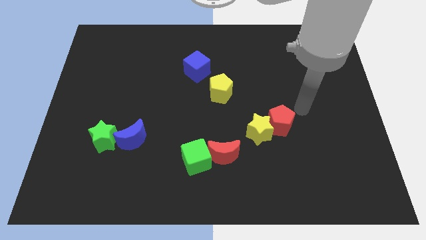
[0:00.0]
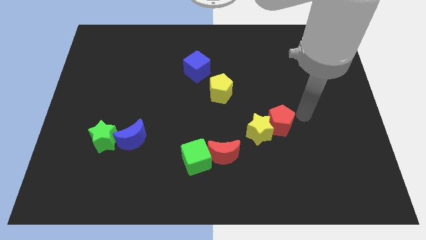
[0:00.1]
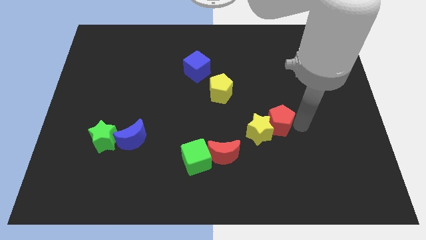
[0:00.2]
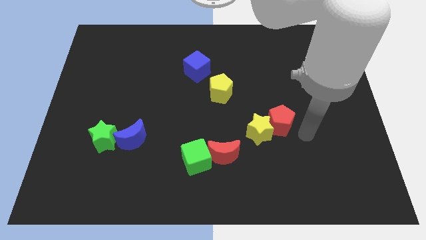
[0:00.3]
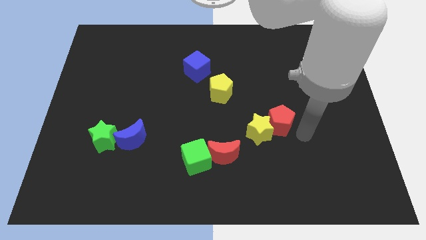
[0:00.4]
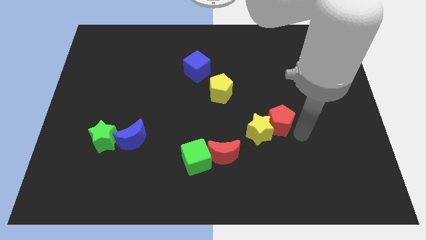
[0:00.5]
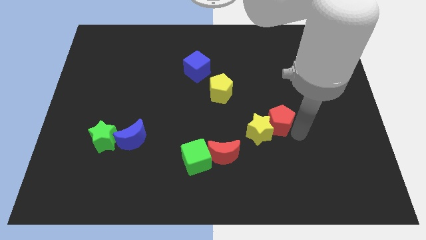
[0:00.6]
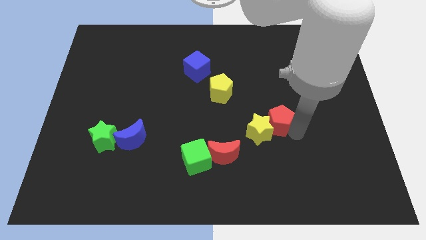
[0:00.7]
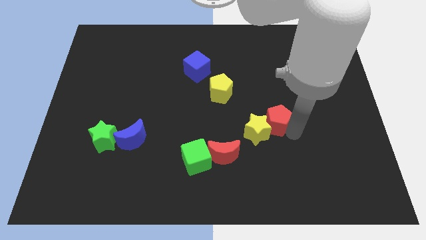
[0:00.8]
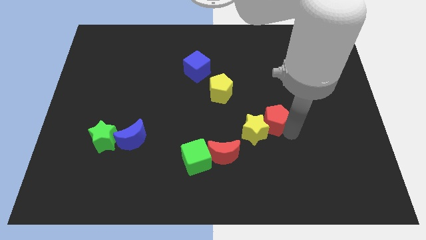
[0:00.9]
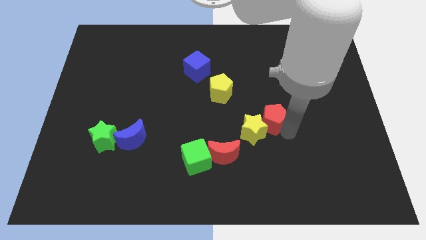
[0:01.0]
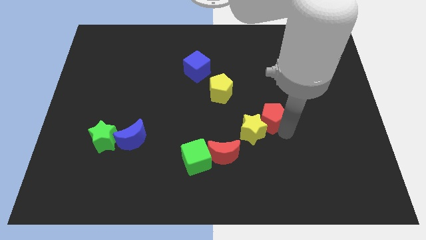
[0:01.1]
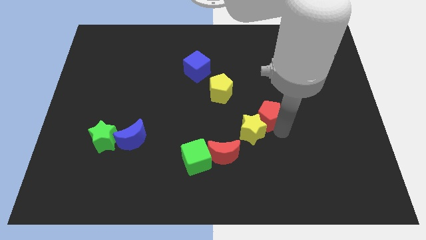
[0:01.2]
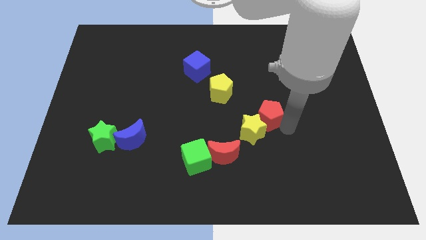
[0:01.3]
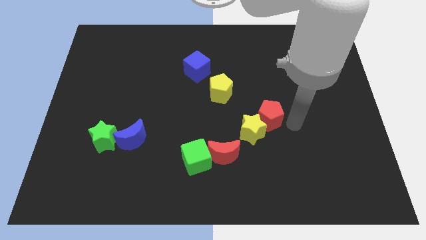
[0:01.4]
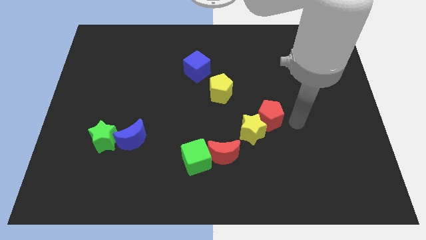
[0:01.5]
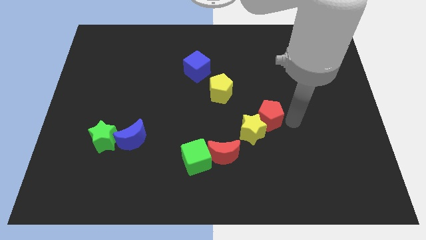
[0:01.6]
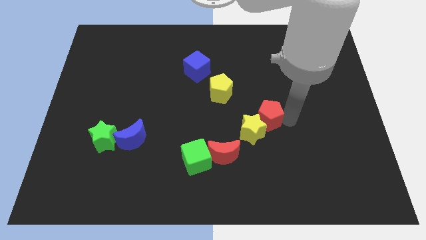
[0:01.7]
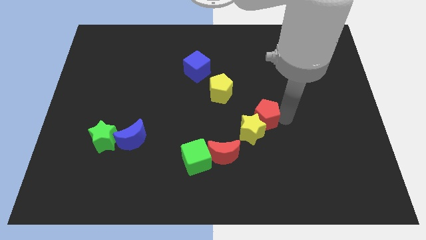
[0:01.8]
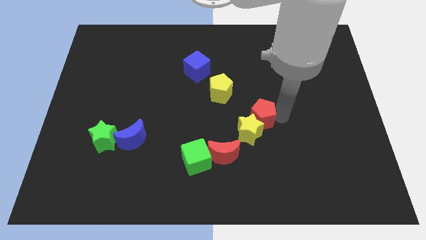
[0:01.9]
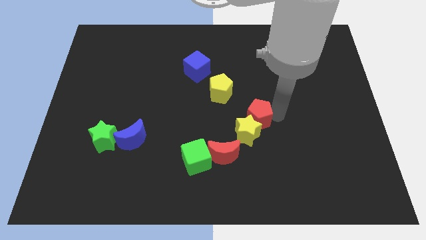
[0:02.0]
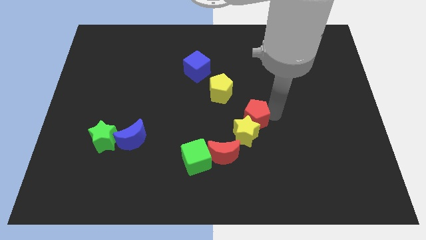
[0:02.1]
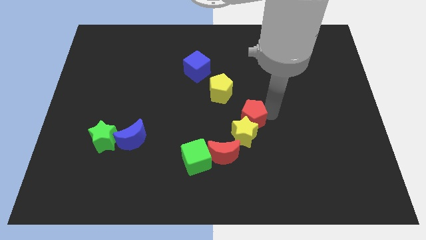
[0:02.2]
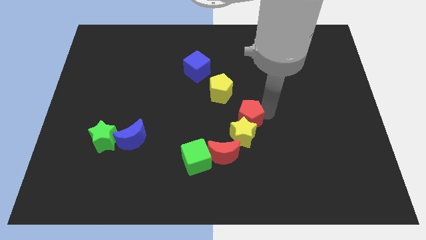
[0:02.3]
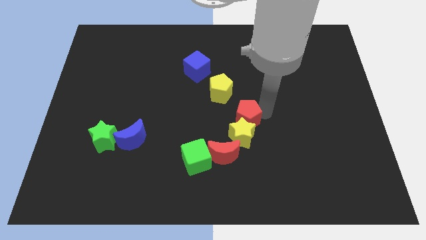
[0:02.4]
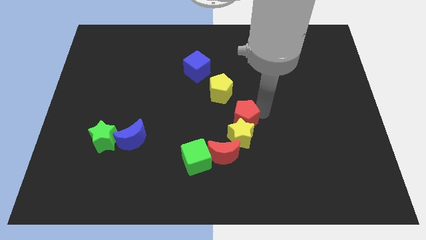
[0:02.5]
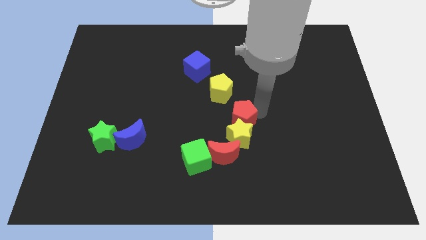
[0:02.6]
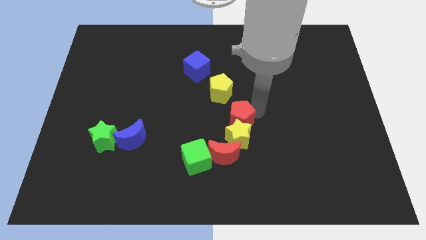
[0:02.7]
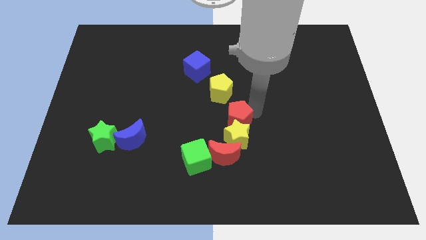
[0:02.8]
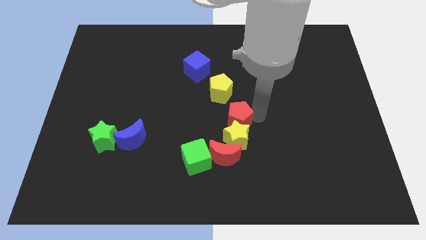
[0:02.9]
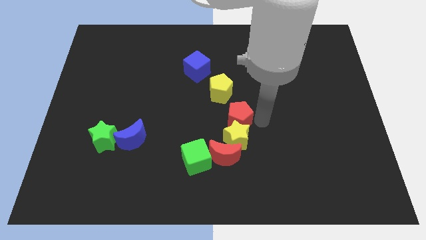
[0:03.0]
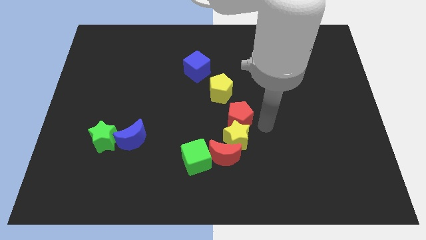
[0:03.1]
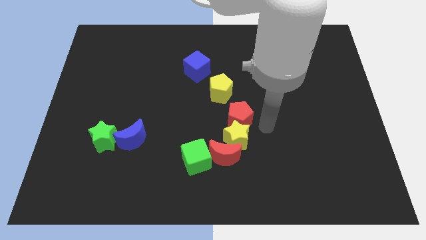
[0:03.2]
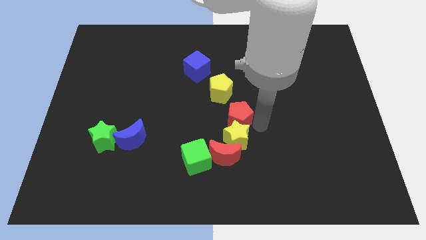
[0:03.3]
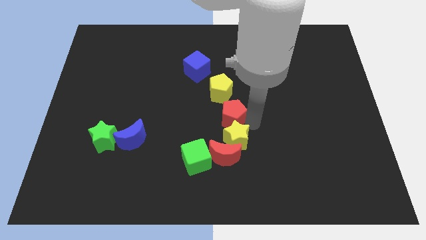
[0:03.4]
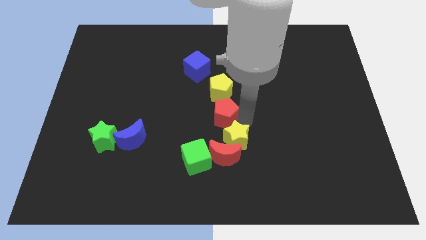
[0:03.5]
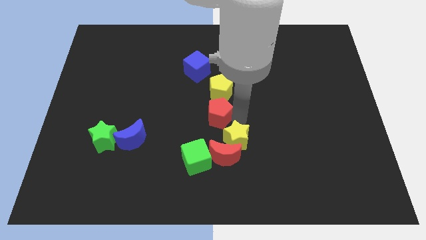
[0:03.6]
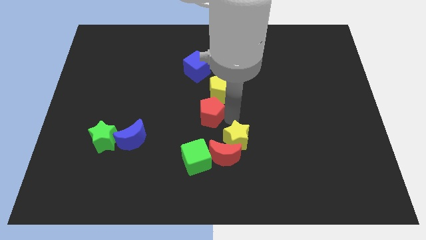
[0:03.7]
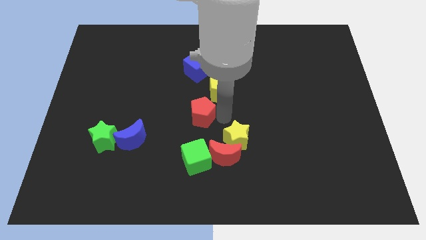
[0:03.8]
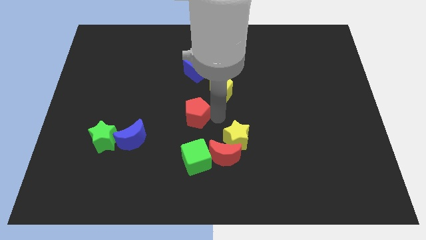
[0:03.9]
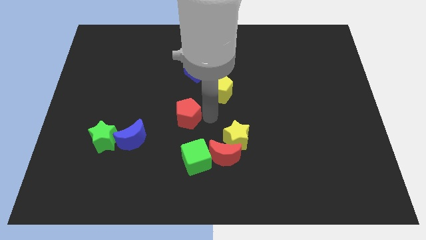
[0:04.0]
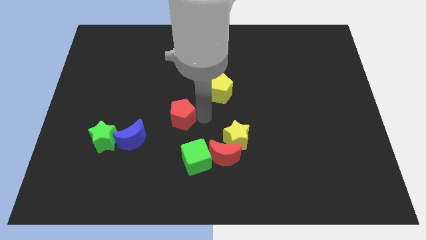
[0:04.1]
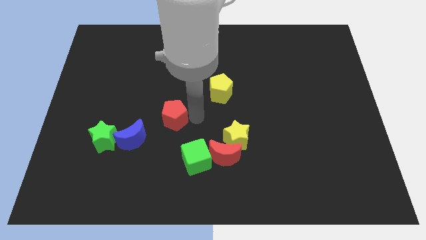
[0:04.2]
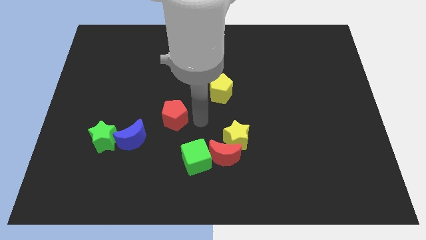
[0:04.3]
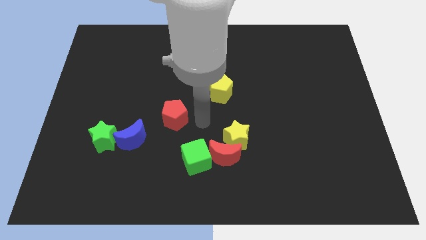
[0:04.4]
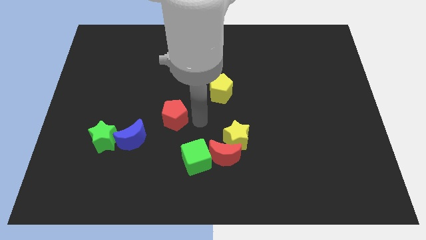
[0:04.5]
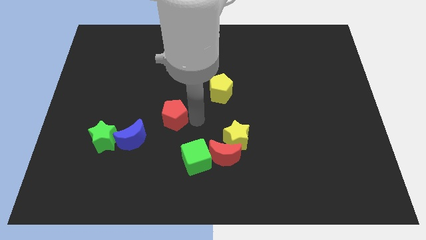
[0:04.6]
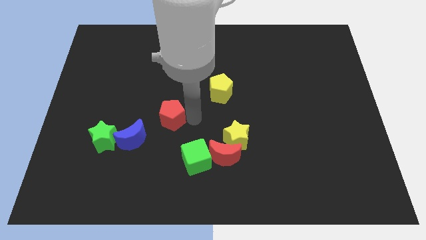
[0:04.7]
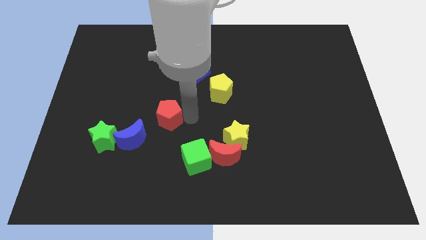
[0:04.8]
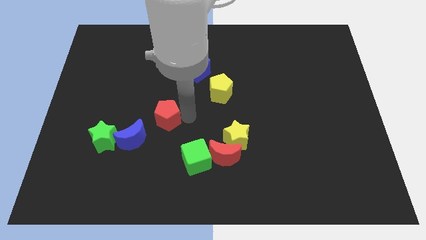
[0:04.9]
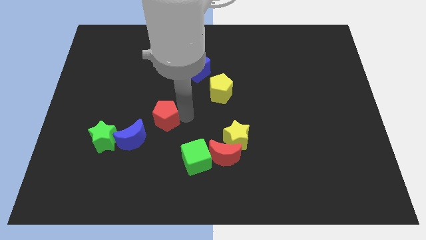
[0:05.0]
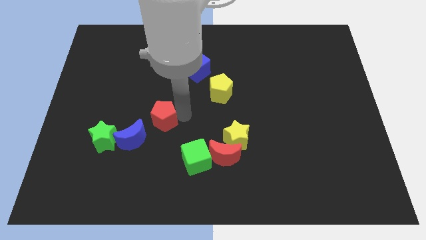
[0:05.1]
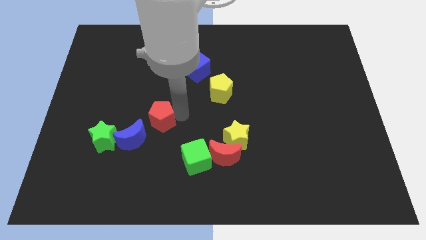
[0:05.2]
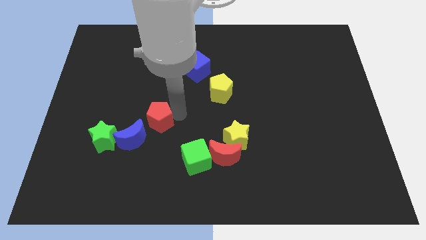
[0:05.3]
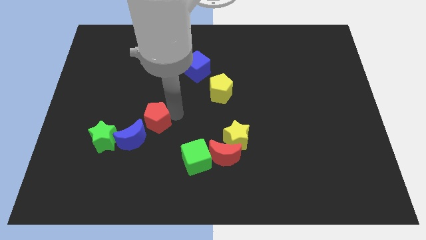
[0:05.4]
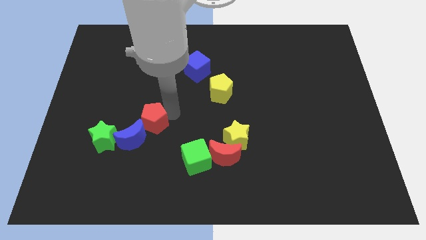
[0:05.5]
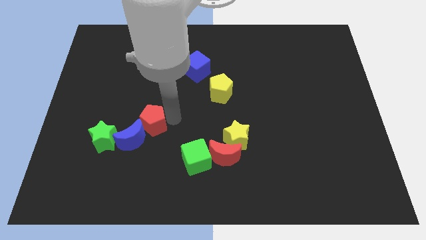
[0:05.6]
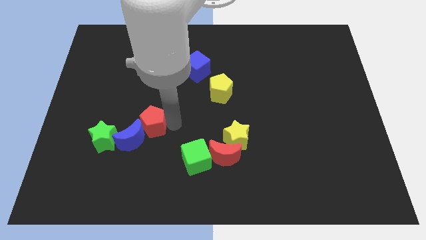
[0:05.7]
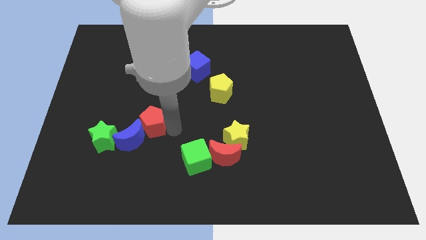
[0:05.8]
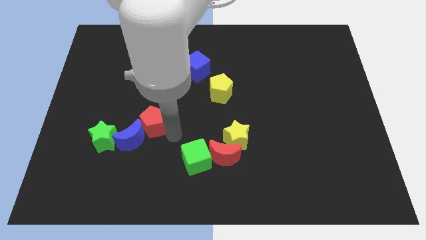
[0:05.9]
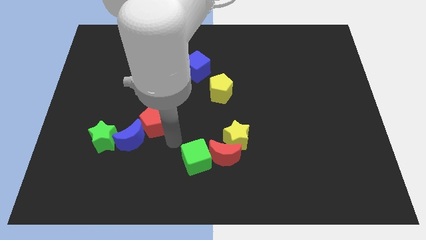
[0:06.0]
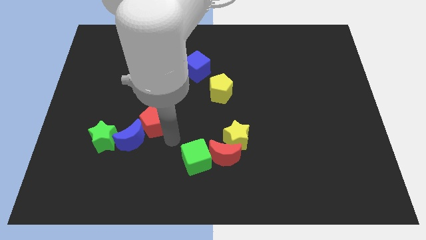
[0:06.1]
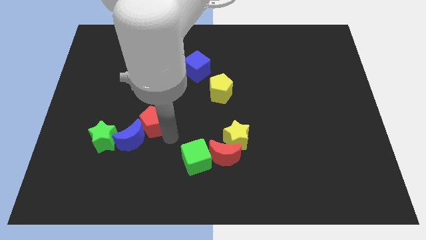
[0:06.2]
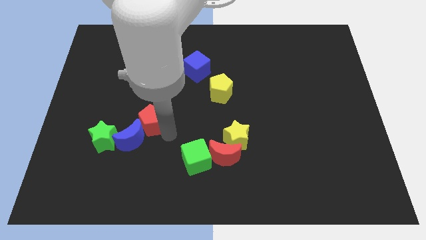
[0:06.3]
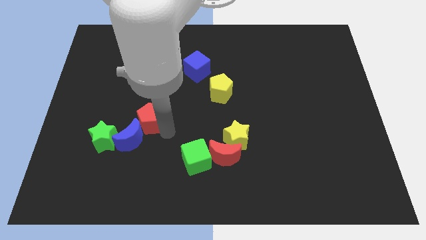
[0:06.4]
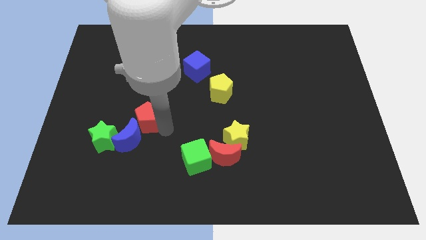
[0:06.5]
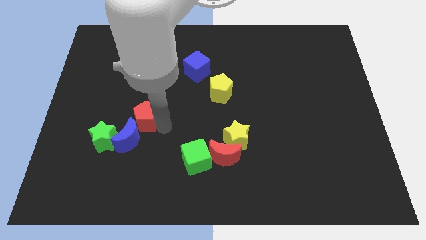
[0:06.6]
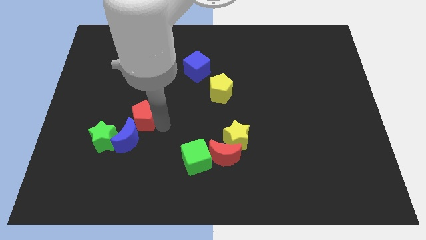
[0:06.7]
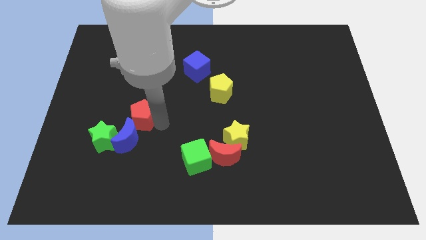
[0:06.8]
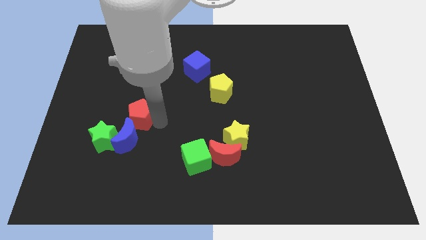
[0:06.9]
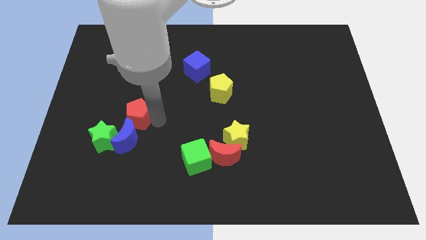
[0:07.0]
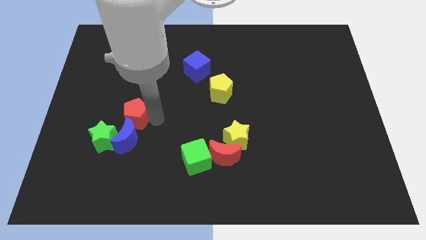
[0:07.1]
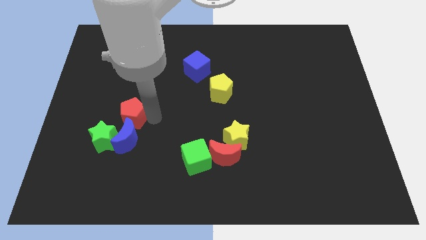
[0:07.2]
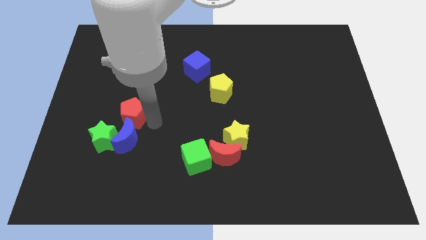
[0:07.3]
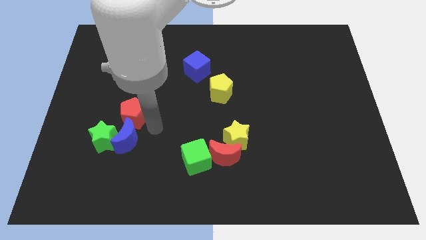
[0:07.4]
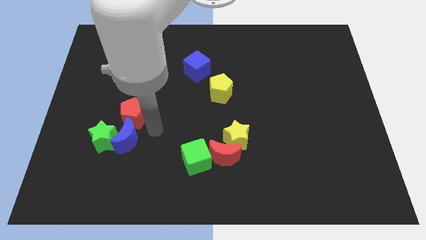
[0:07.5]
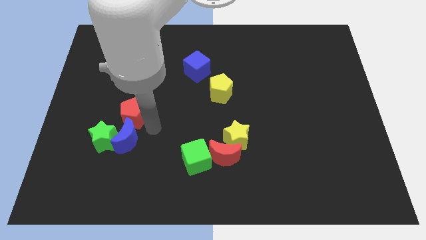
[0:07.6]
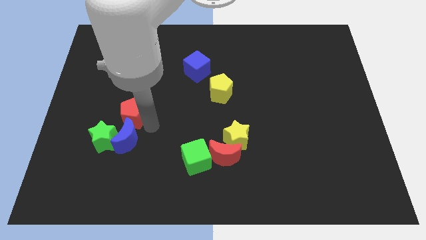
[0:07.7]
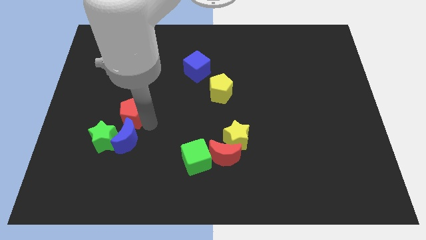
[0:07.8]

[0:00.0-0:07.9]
slide the red pentagon to the top side of the green star
